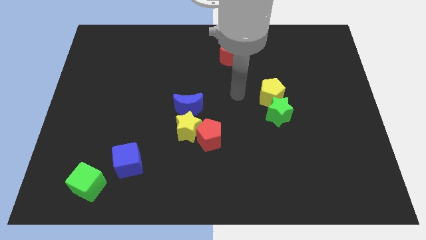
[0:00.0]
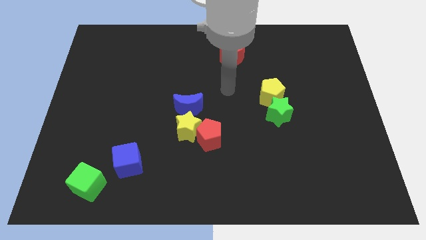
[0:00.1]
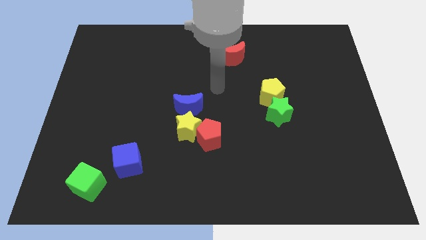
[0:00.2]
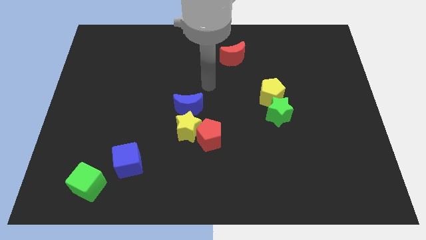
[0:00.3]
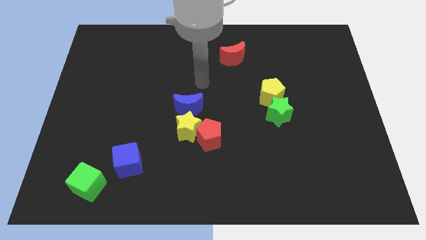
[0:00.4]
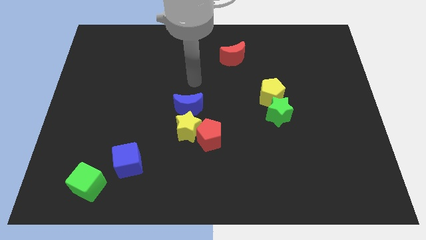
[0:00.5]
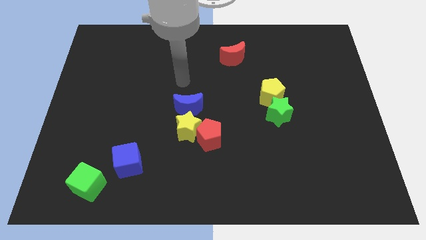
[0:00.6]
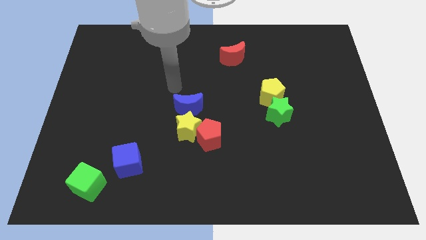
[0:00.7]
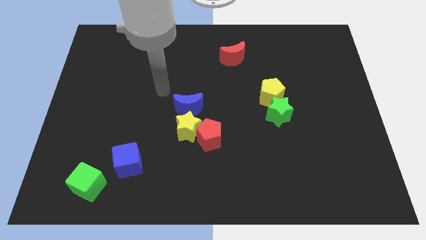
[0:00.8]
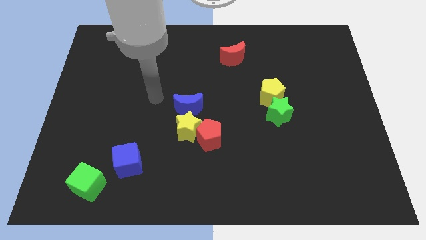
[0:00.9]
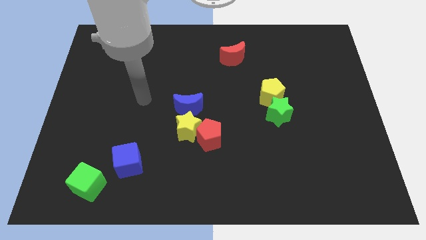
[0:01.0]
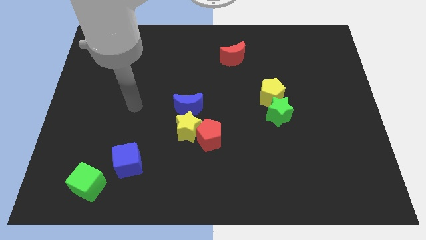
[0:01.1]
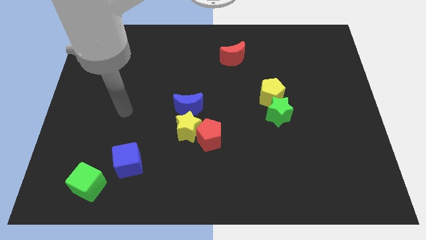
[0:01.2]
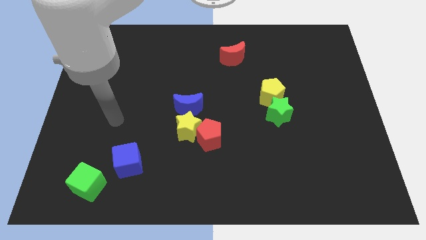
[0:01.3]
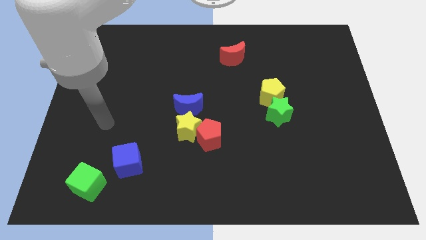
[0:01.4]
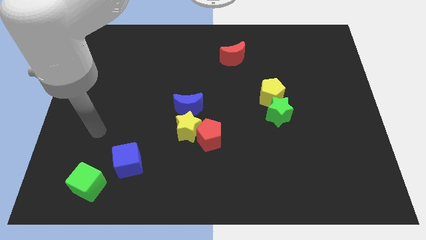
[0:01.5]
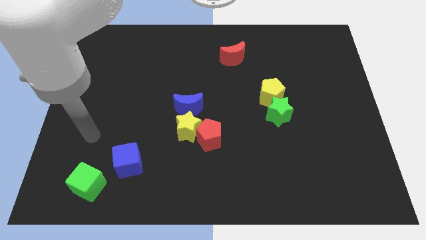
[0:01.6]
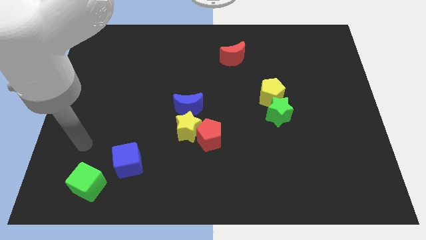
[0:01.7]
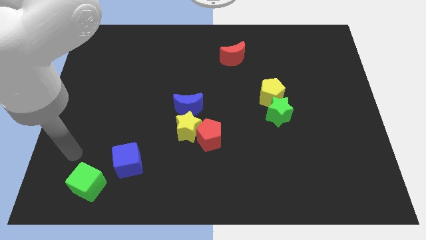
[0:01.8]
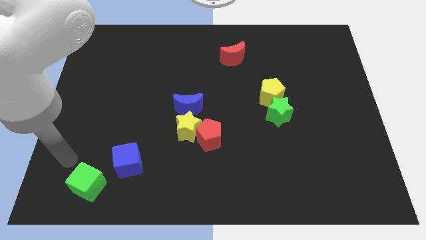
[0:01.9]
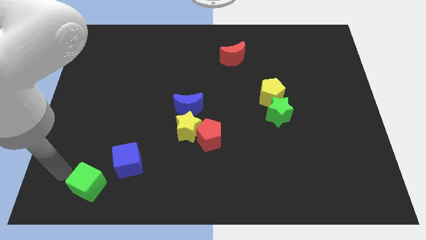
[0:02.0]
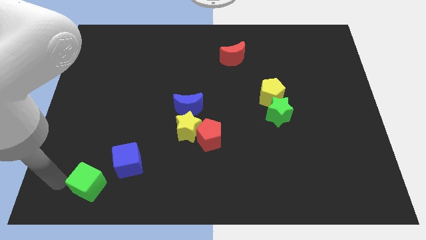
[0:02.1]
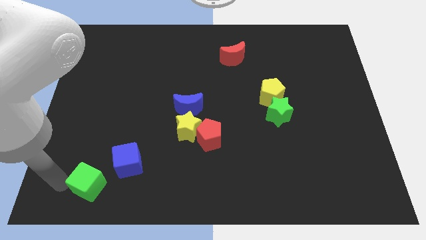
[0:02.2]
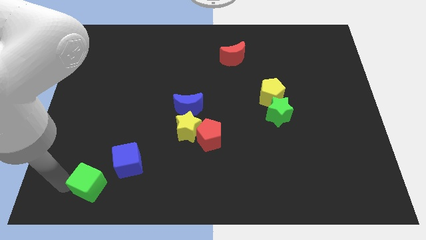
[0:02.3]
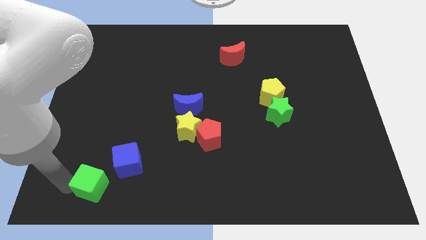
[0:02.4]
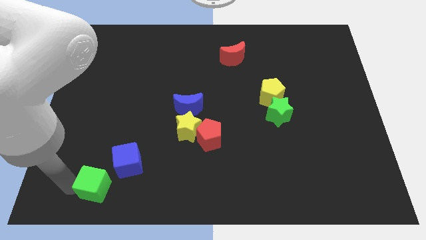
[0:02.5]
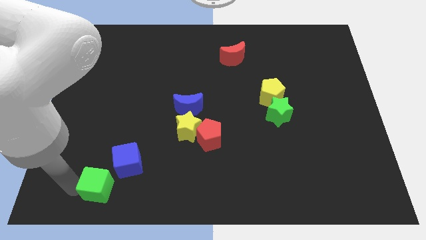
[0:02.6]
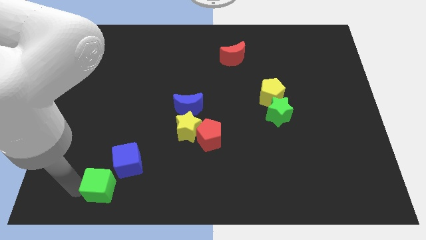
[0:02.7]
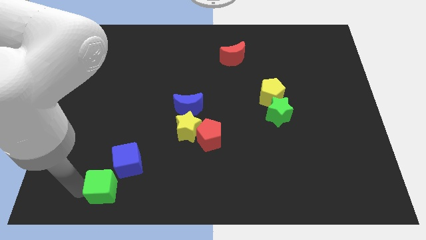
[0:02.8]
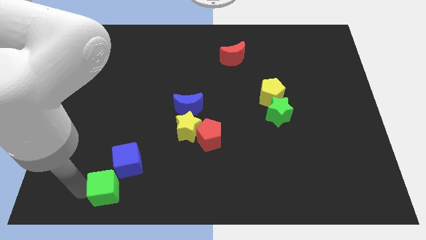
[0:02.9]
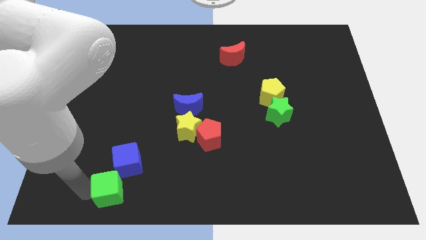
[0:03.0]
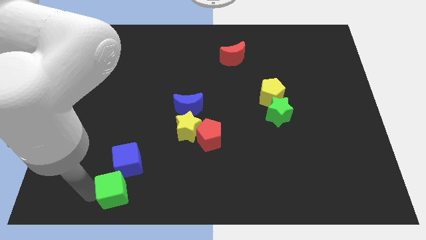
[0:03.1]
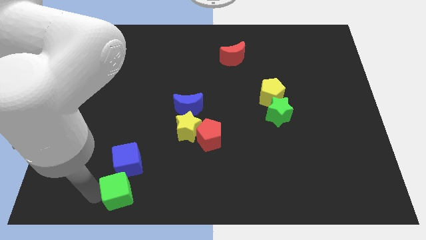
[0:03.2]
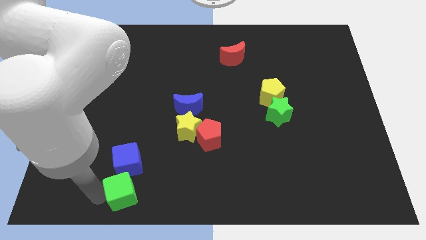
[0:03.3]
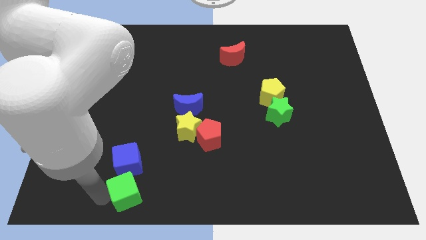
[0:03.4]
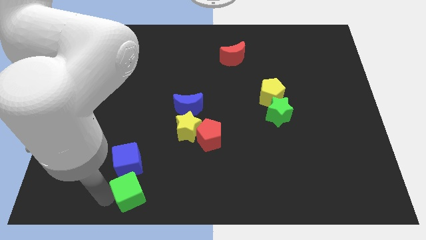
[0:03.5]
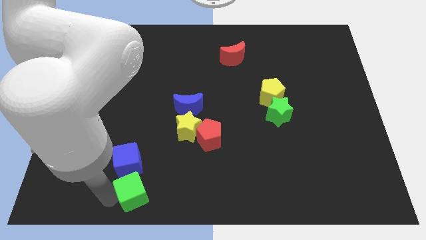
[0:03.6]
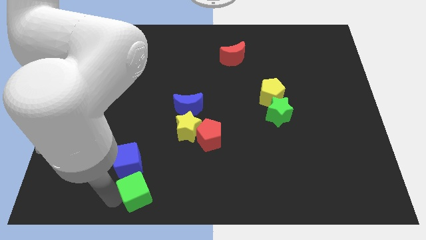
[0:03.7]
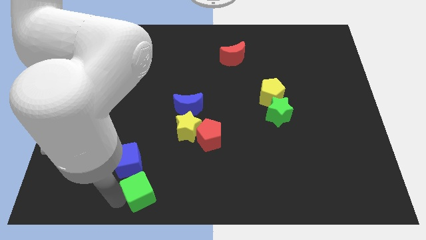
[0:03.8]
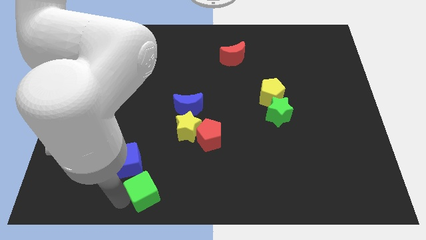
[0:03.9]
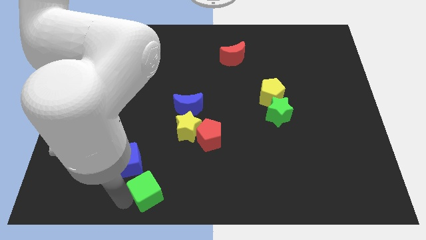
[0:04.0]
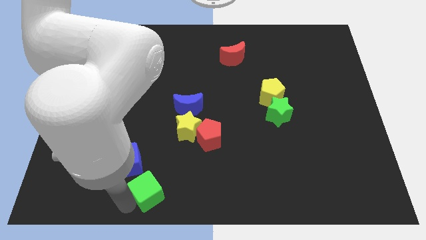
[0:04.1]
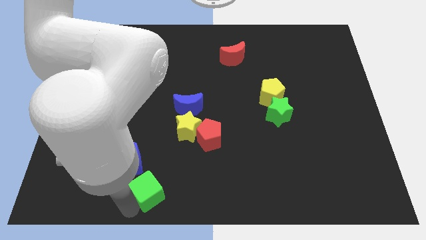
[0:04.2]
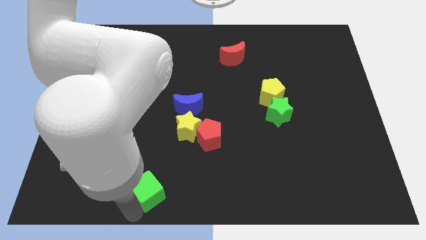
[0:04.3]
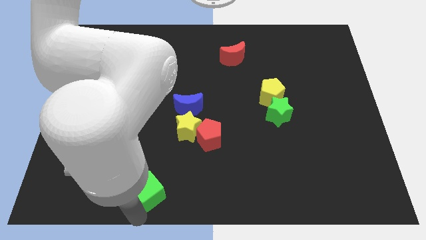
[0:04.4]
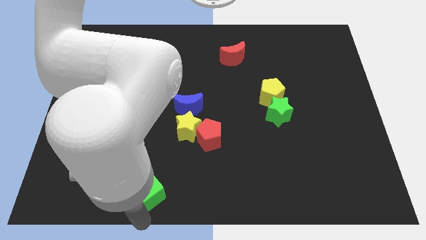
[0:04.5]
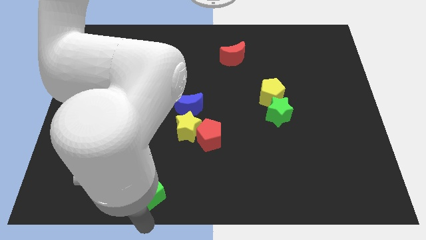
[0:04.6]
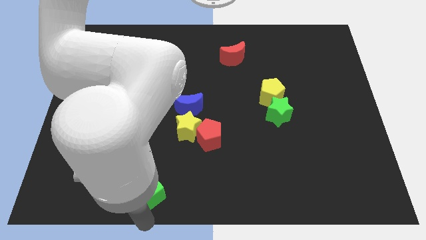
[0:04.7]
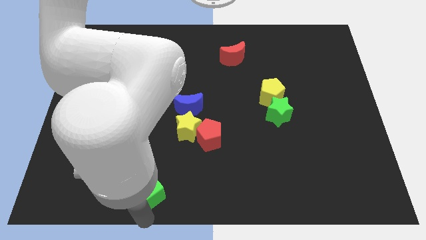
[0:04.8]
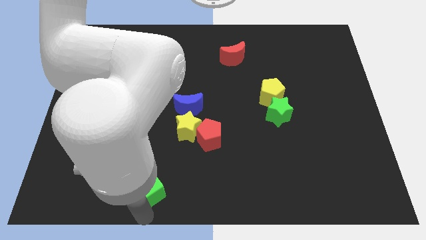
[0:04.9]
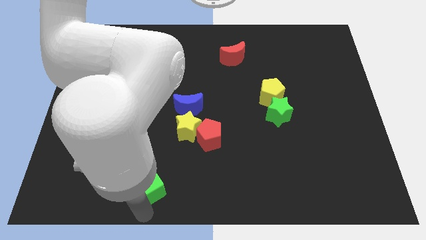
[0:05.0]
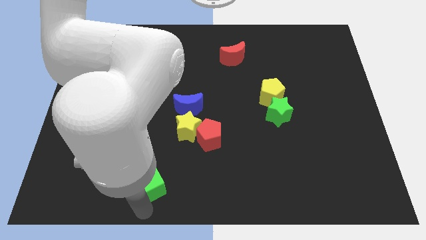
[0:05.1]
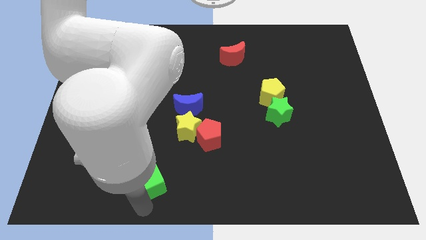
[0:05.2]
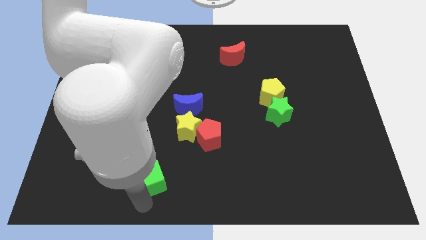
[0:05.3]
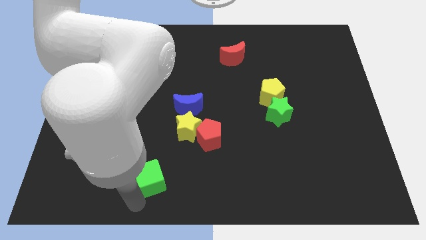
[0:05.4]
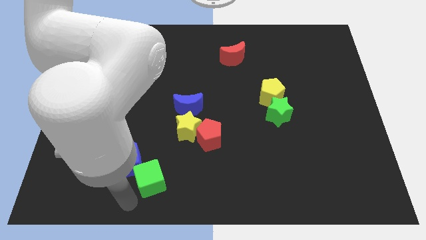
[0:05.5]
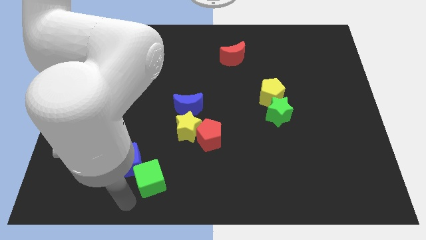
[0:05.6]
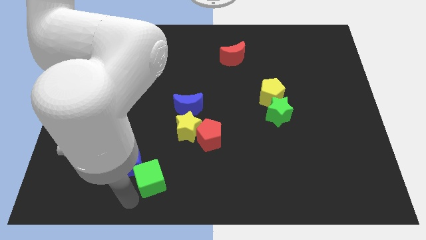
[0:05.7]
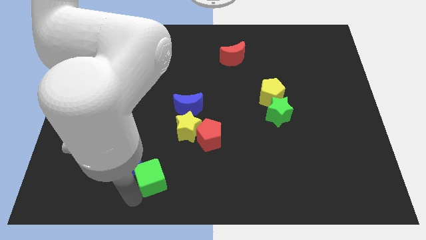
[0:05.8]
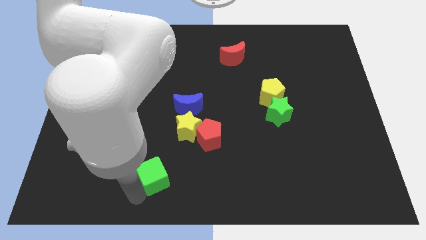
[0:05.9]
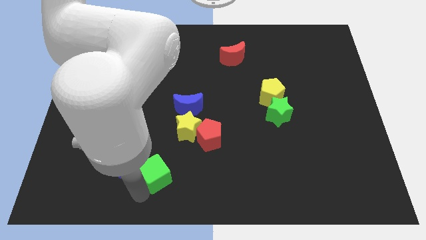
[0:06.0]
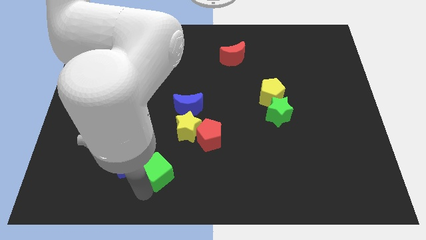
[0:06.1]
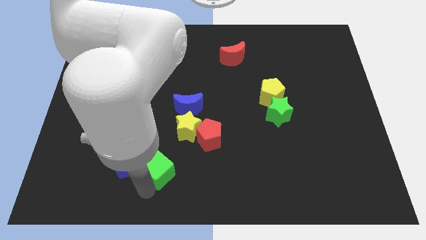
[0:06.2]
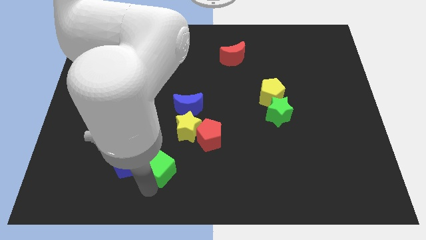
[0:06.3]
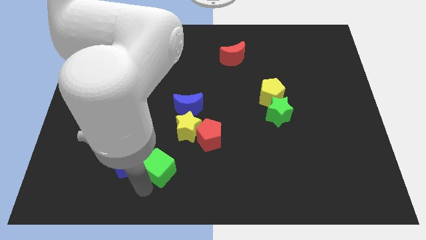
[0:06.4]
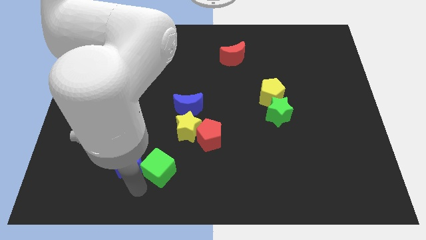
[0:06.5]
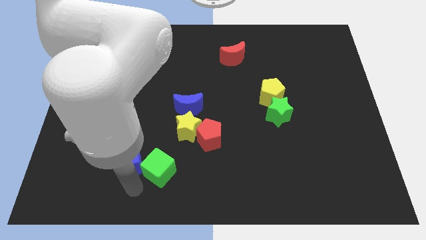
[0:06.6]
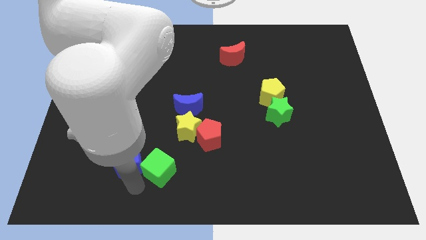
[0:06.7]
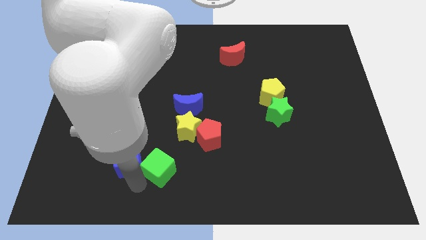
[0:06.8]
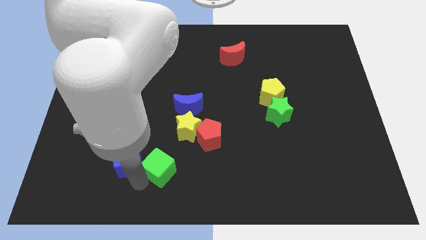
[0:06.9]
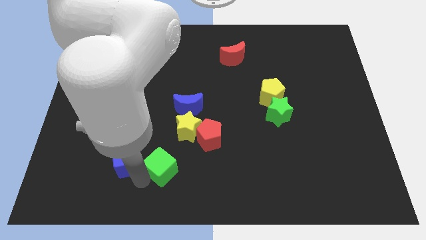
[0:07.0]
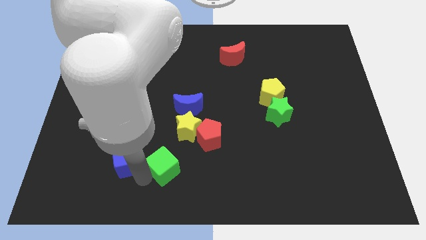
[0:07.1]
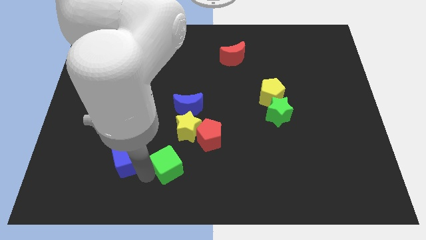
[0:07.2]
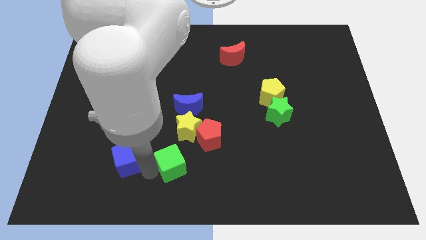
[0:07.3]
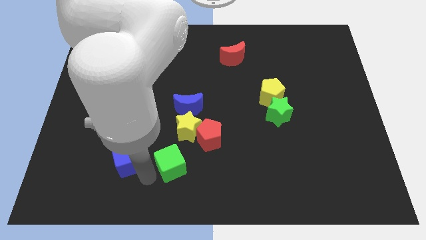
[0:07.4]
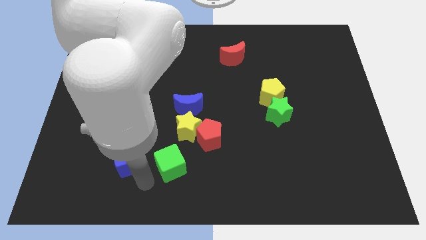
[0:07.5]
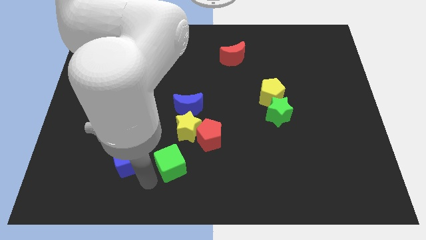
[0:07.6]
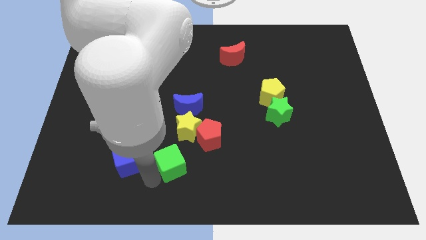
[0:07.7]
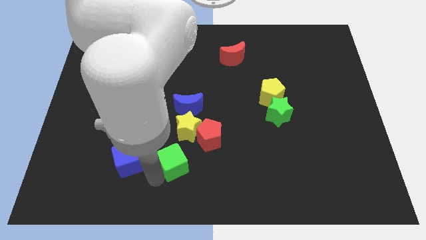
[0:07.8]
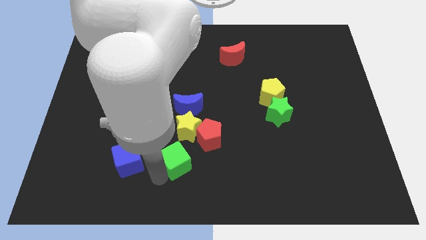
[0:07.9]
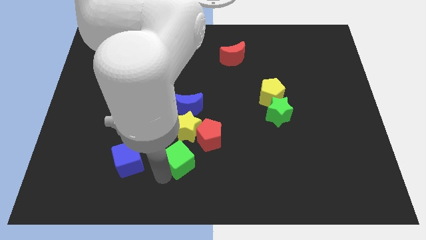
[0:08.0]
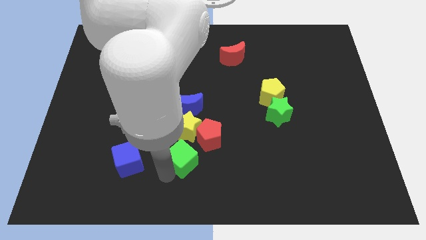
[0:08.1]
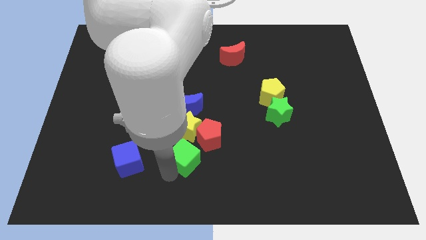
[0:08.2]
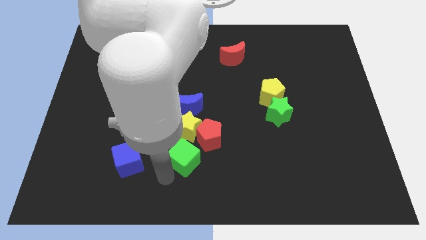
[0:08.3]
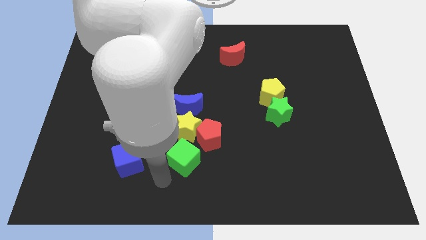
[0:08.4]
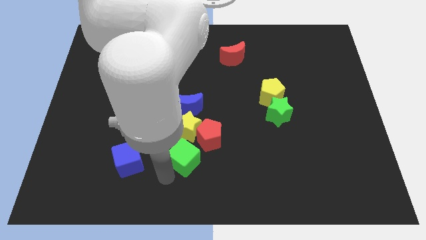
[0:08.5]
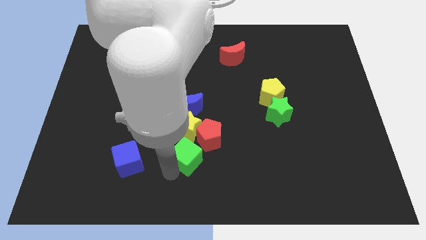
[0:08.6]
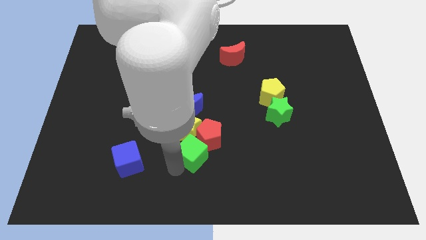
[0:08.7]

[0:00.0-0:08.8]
push the green cube close to the red pentagon
